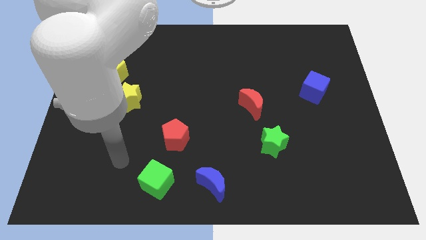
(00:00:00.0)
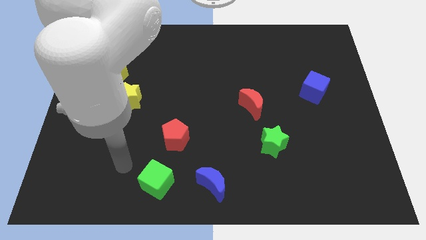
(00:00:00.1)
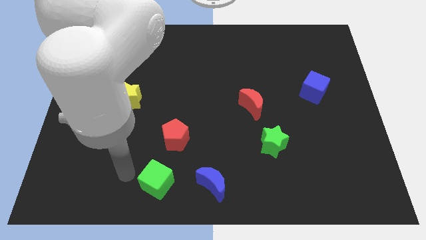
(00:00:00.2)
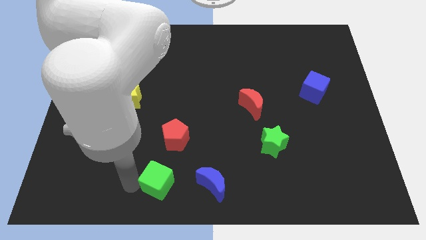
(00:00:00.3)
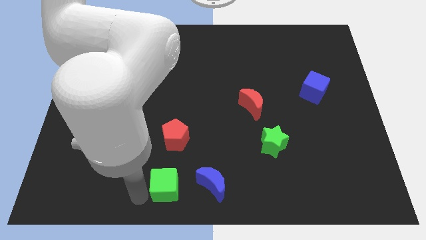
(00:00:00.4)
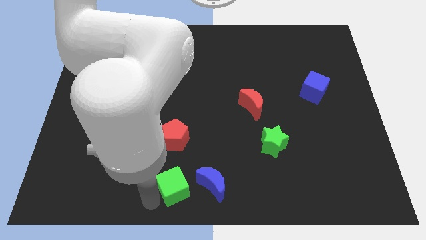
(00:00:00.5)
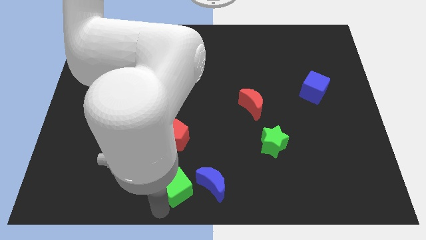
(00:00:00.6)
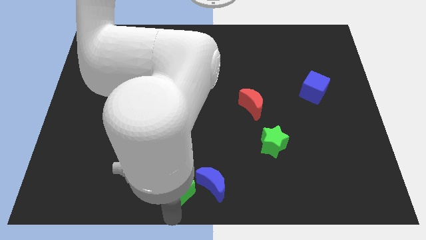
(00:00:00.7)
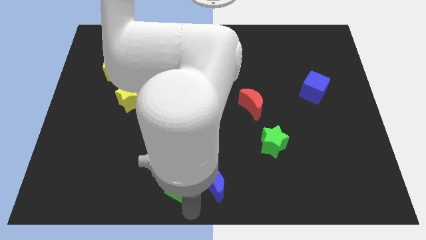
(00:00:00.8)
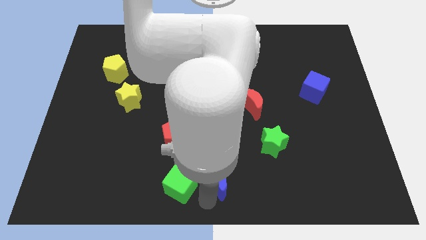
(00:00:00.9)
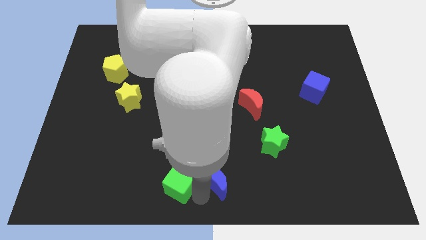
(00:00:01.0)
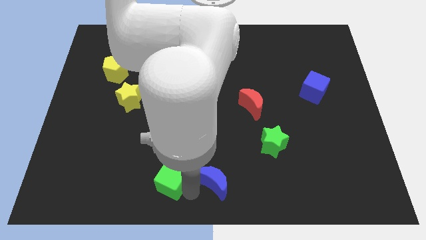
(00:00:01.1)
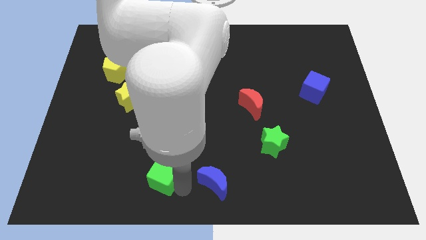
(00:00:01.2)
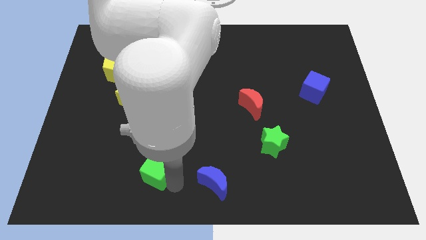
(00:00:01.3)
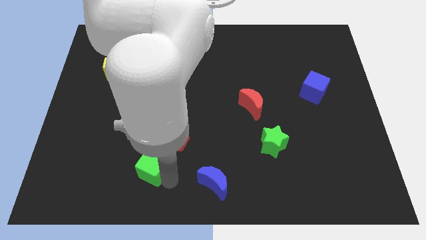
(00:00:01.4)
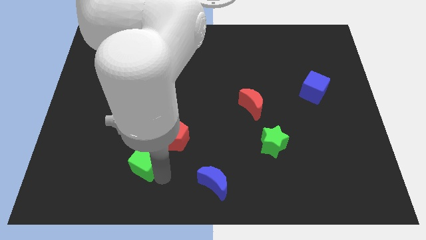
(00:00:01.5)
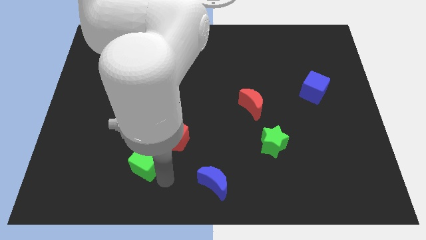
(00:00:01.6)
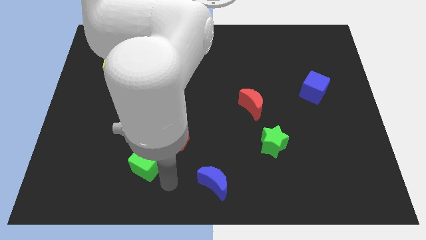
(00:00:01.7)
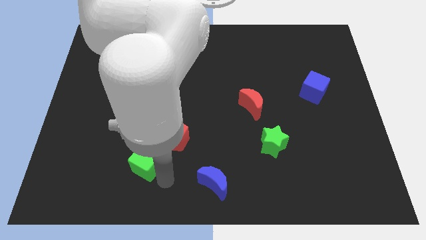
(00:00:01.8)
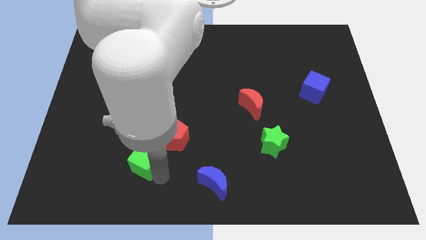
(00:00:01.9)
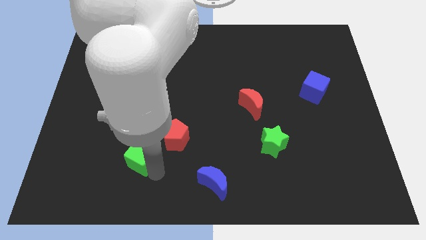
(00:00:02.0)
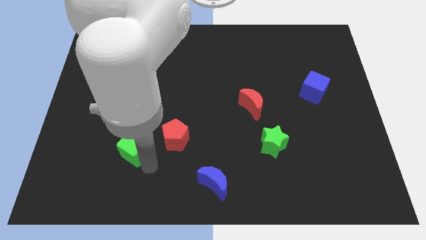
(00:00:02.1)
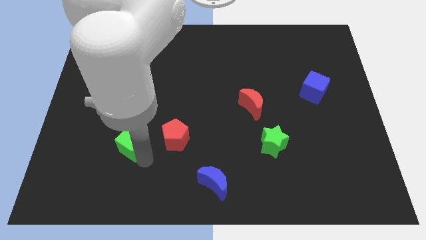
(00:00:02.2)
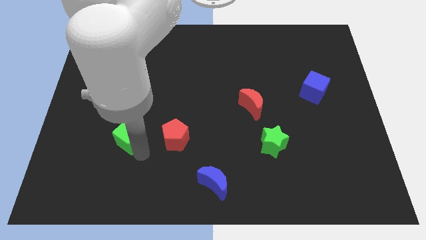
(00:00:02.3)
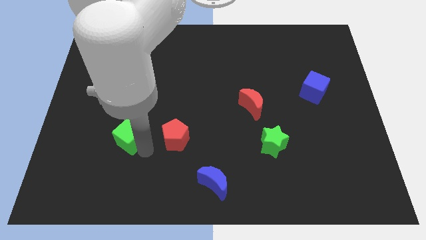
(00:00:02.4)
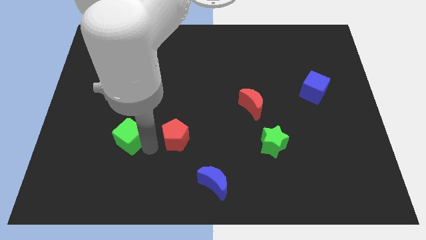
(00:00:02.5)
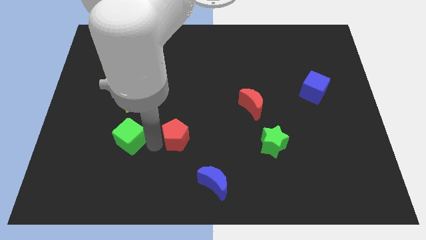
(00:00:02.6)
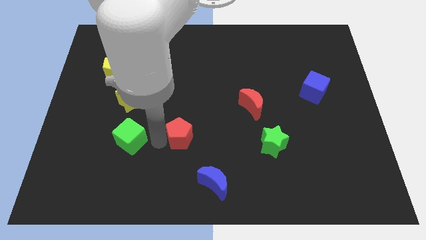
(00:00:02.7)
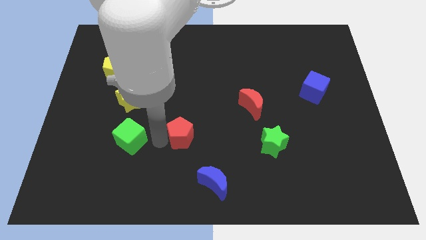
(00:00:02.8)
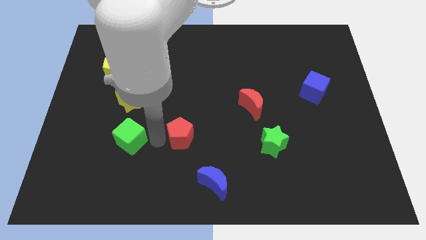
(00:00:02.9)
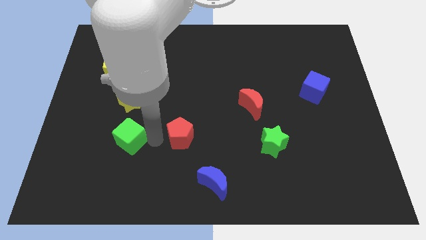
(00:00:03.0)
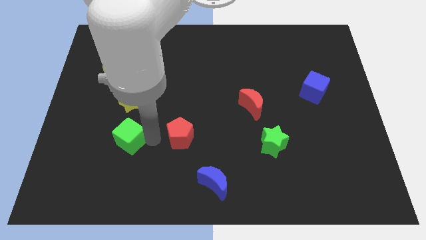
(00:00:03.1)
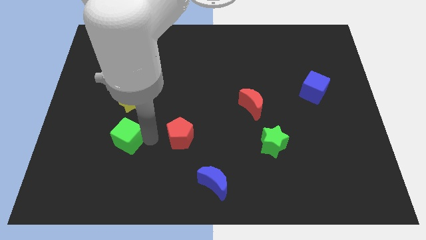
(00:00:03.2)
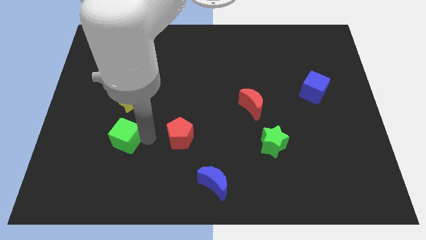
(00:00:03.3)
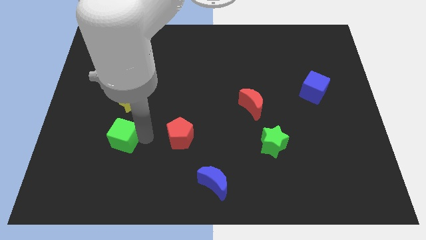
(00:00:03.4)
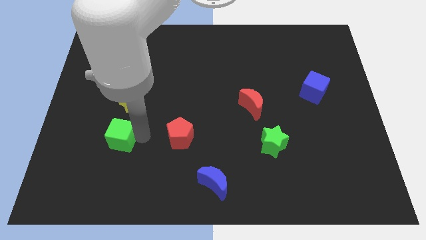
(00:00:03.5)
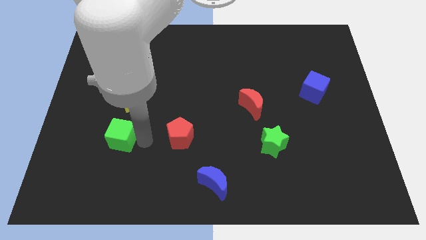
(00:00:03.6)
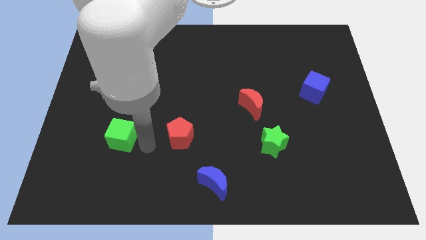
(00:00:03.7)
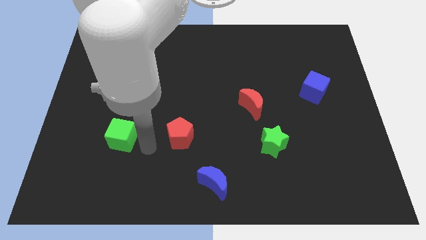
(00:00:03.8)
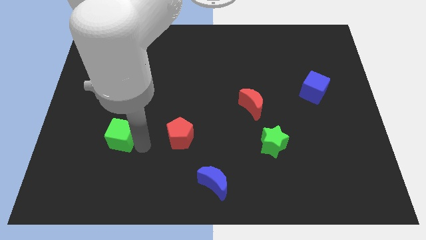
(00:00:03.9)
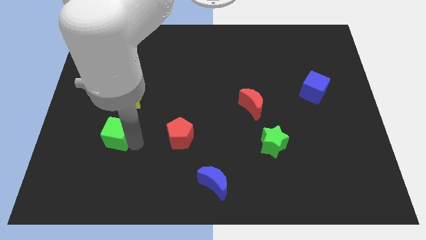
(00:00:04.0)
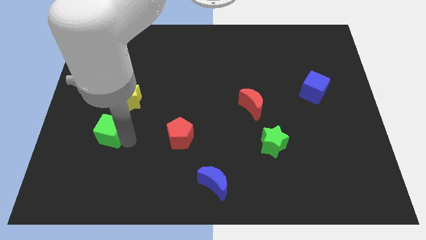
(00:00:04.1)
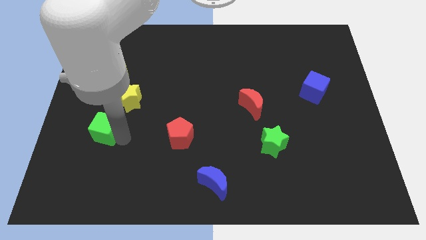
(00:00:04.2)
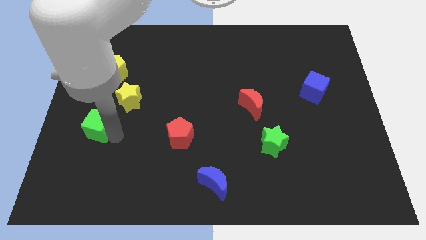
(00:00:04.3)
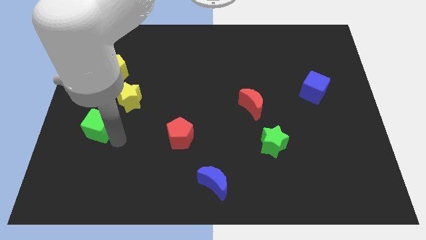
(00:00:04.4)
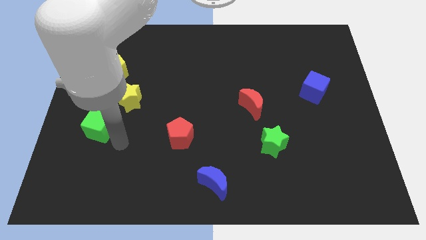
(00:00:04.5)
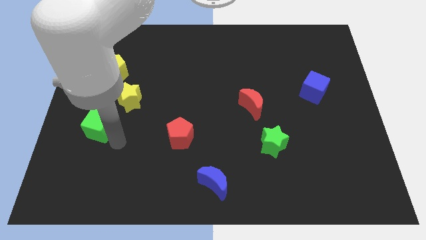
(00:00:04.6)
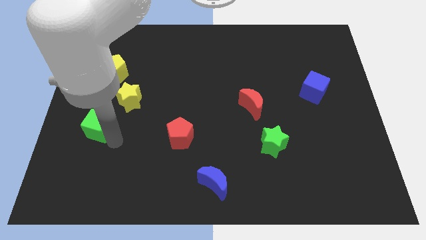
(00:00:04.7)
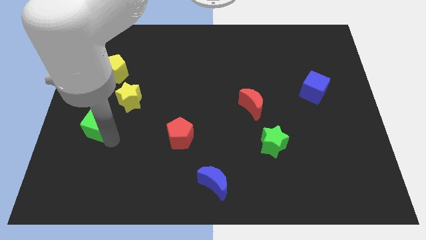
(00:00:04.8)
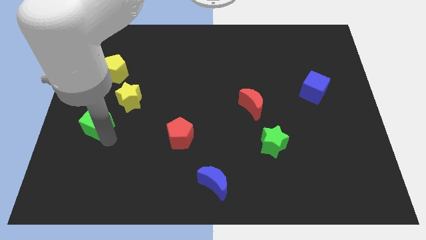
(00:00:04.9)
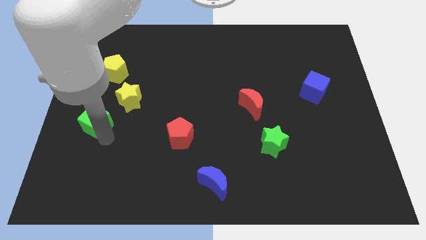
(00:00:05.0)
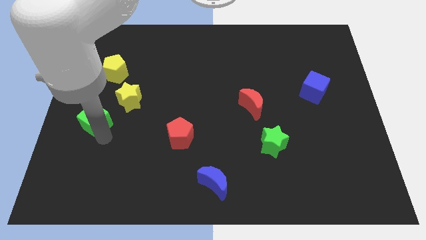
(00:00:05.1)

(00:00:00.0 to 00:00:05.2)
put the green cube to the left side of the board

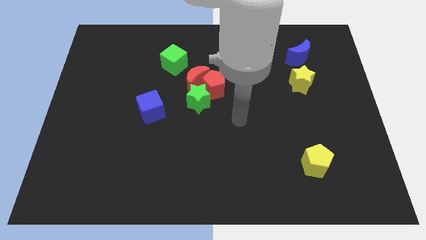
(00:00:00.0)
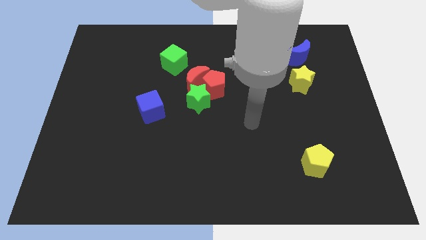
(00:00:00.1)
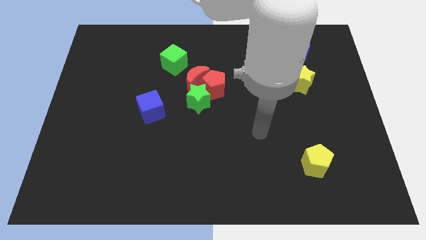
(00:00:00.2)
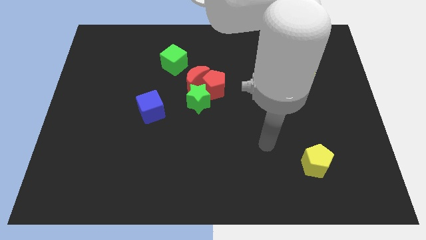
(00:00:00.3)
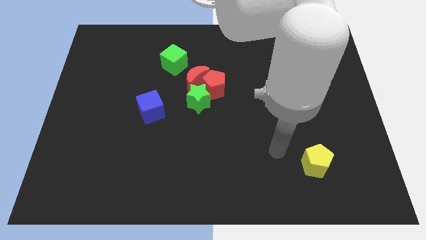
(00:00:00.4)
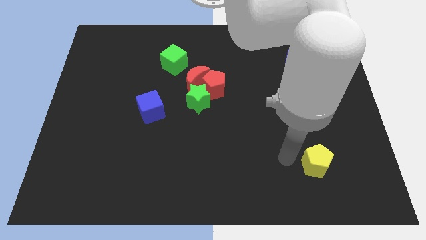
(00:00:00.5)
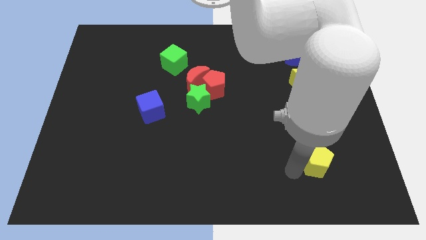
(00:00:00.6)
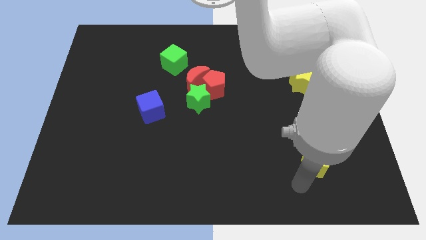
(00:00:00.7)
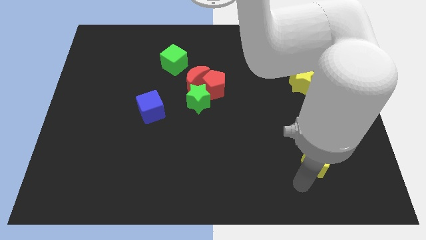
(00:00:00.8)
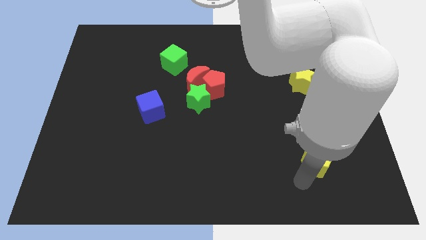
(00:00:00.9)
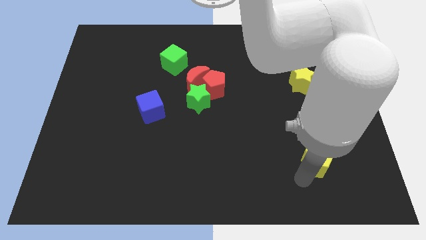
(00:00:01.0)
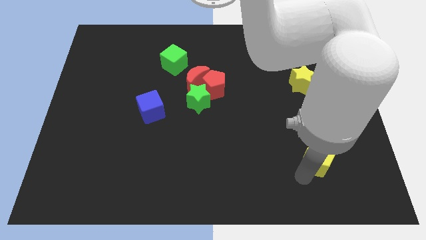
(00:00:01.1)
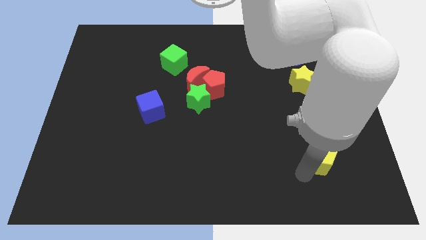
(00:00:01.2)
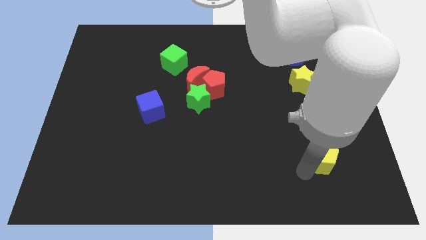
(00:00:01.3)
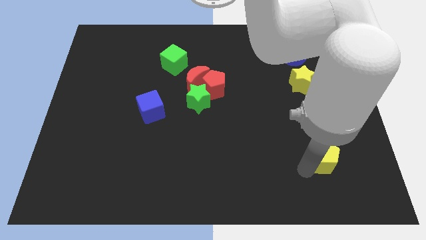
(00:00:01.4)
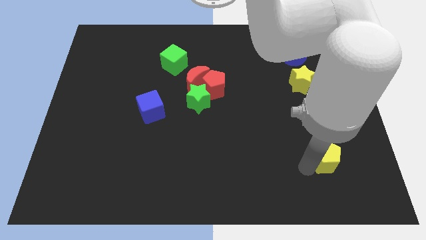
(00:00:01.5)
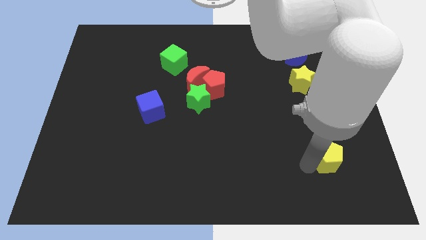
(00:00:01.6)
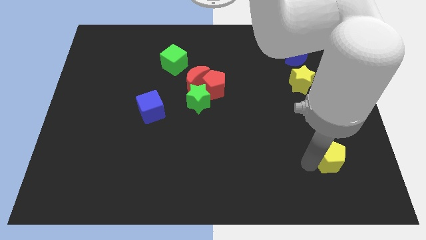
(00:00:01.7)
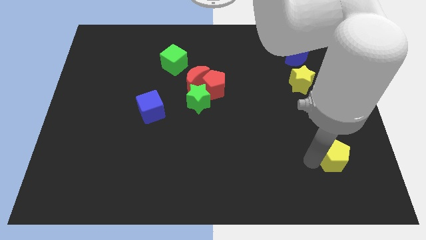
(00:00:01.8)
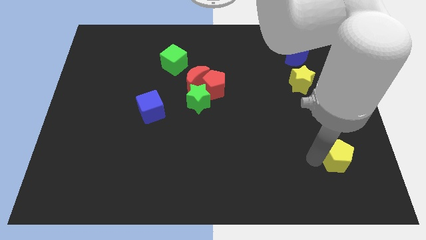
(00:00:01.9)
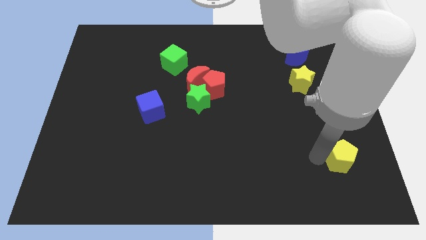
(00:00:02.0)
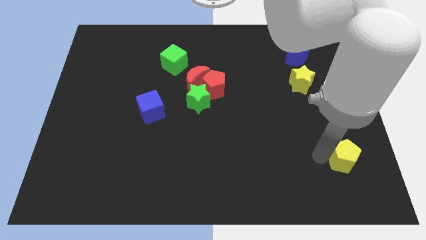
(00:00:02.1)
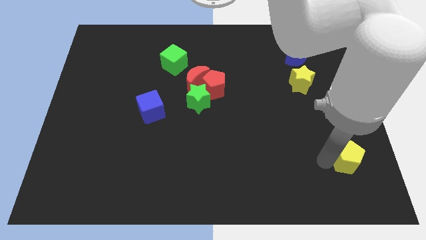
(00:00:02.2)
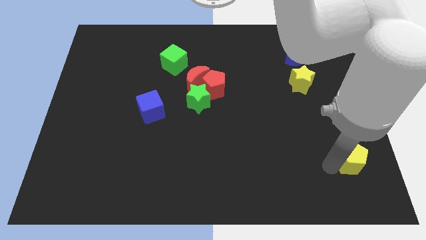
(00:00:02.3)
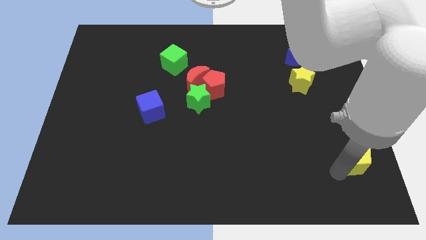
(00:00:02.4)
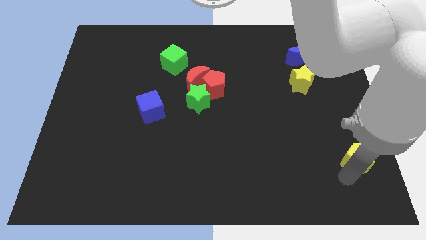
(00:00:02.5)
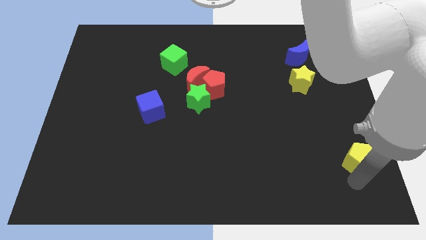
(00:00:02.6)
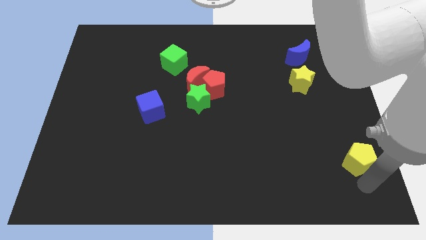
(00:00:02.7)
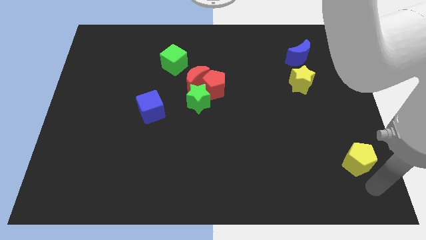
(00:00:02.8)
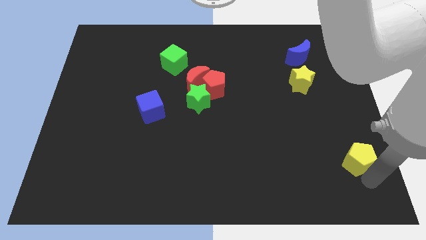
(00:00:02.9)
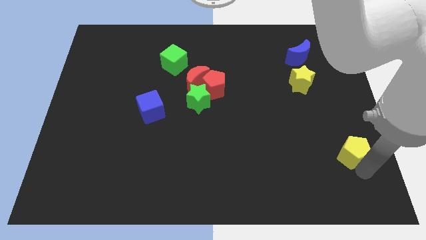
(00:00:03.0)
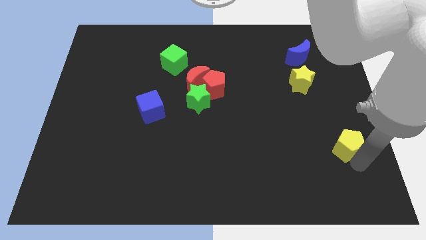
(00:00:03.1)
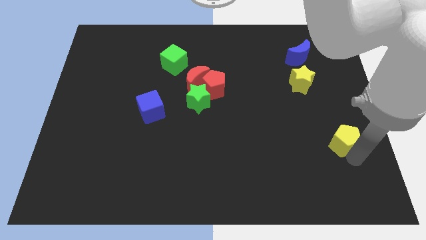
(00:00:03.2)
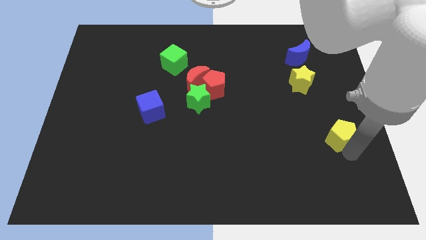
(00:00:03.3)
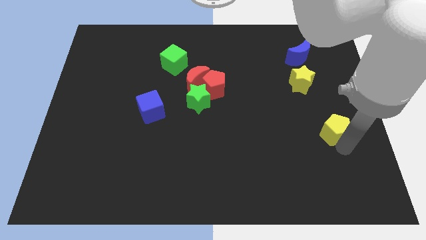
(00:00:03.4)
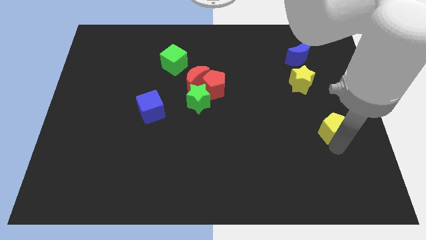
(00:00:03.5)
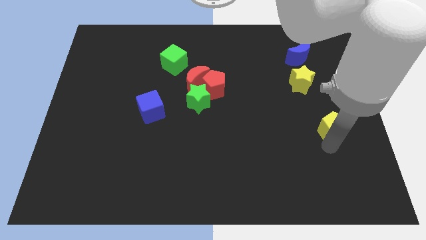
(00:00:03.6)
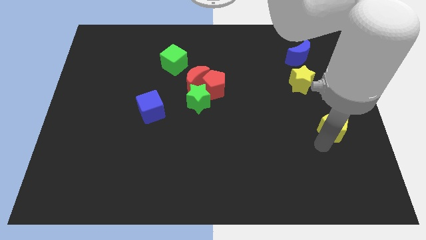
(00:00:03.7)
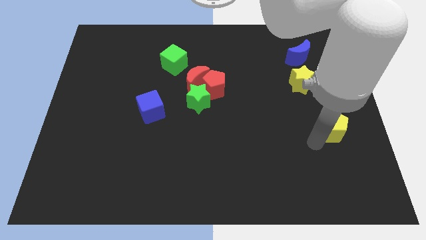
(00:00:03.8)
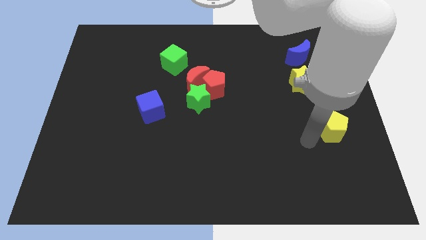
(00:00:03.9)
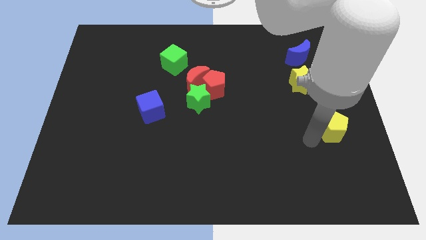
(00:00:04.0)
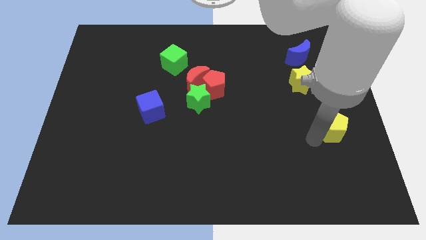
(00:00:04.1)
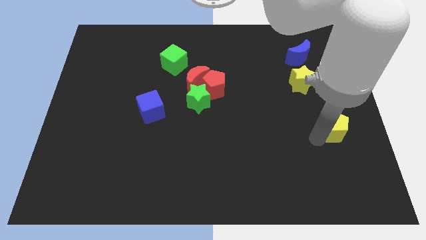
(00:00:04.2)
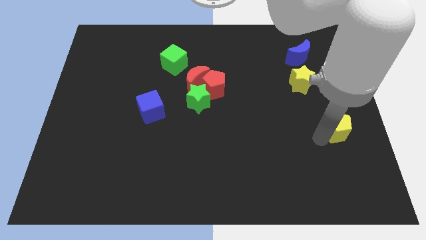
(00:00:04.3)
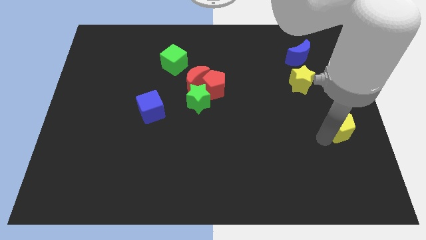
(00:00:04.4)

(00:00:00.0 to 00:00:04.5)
move the yellow pentagon to the center right
